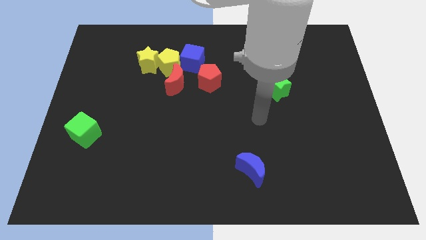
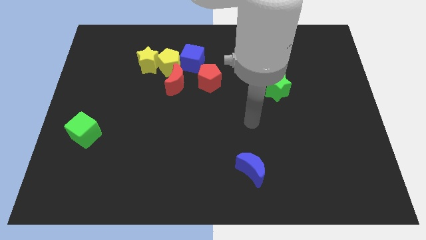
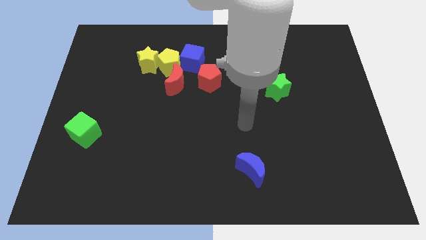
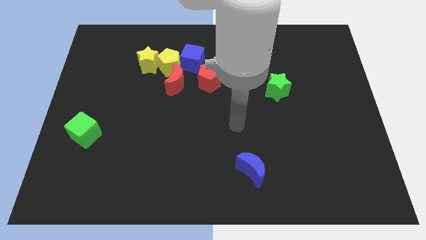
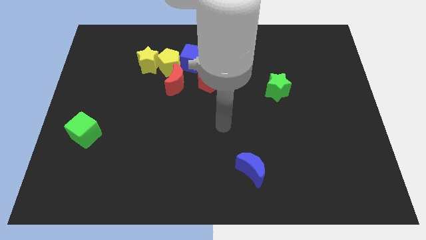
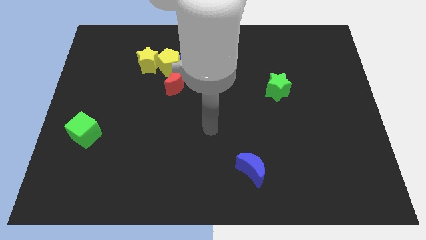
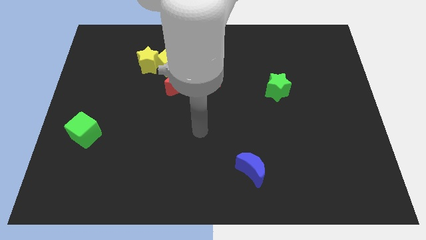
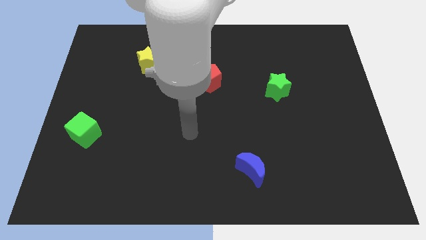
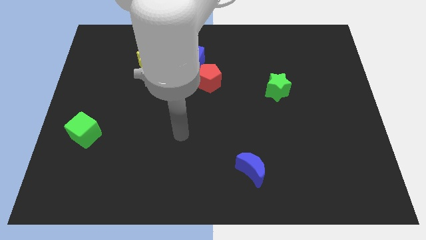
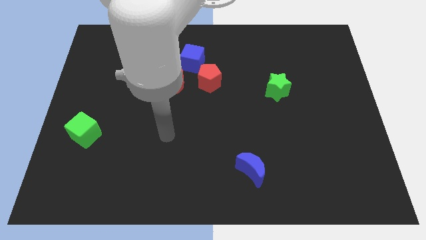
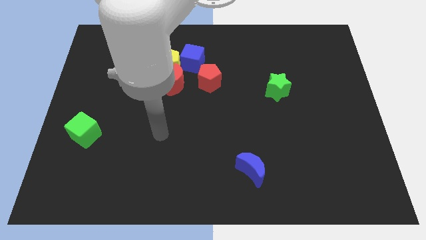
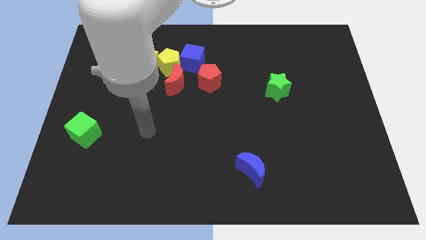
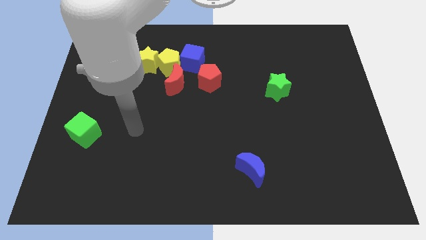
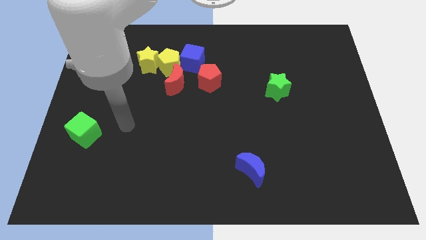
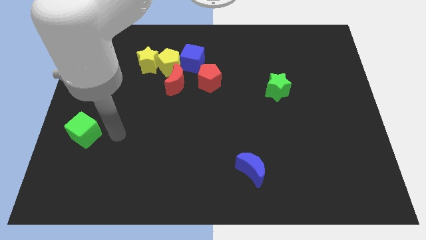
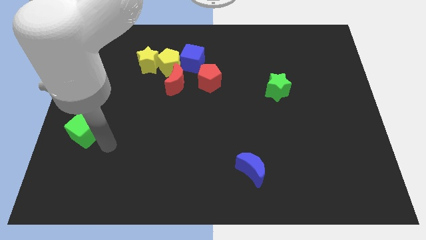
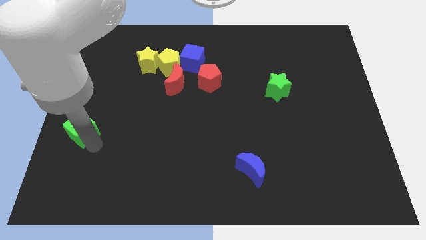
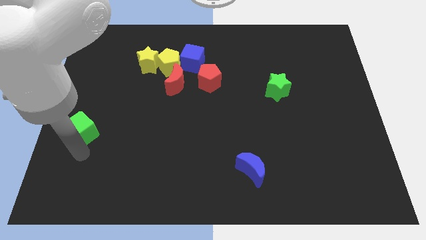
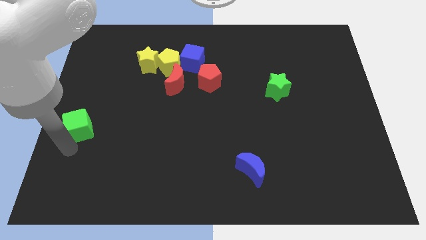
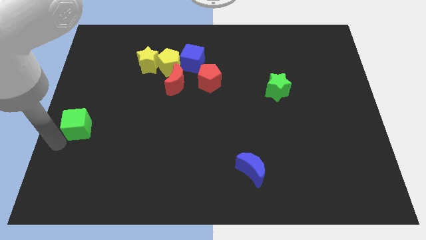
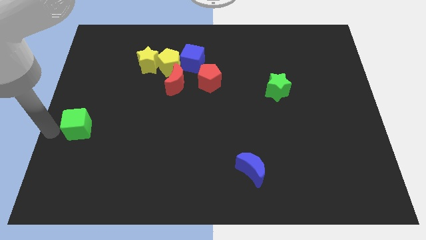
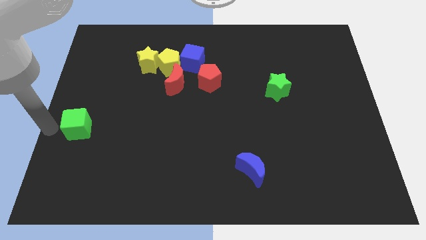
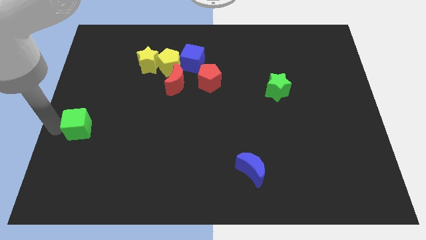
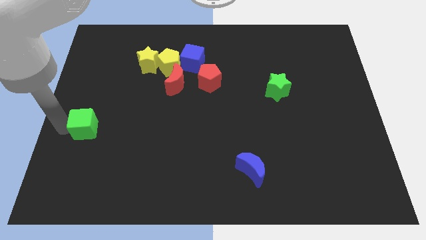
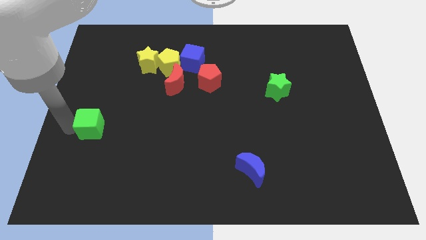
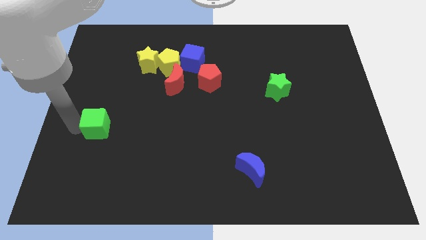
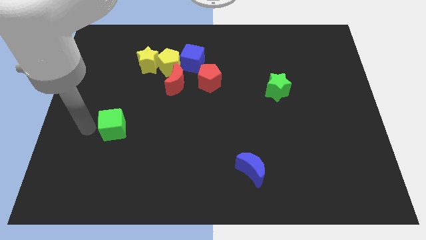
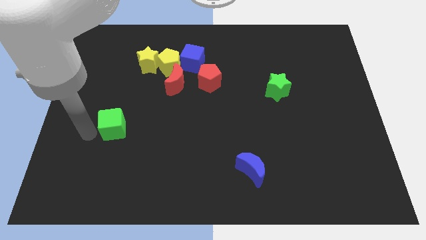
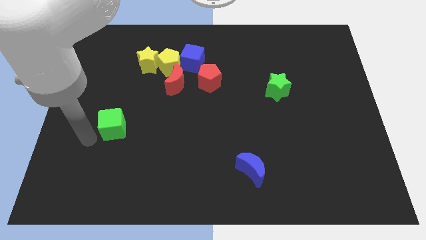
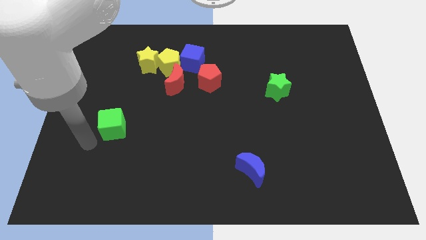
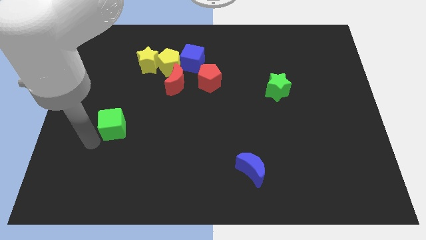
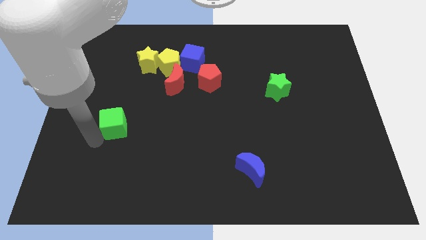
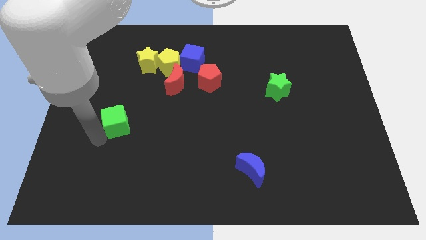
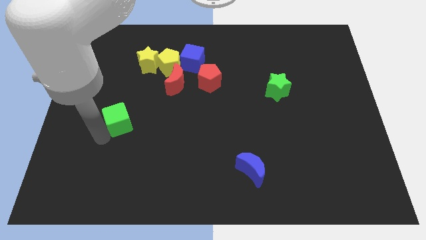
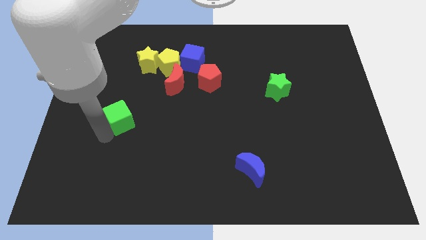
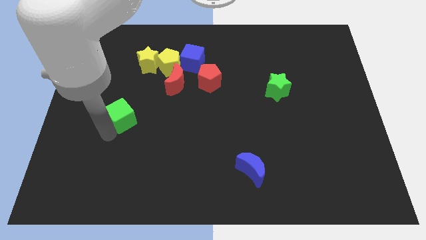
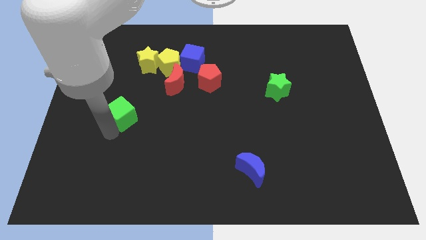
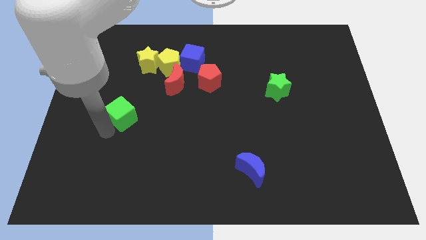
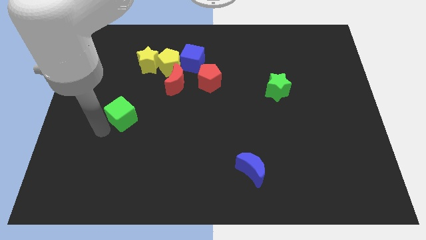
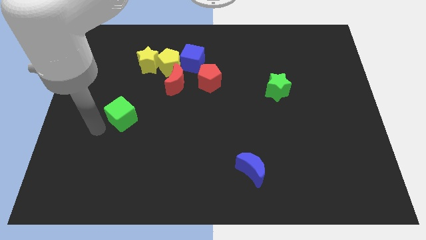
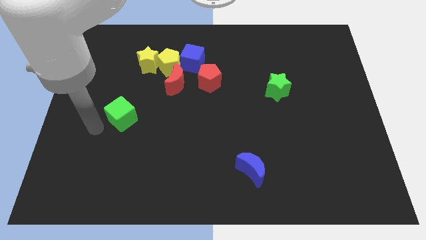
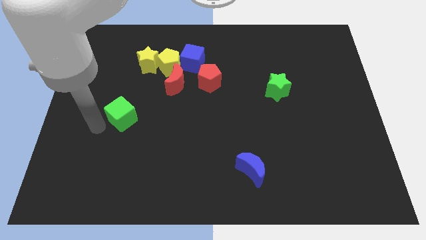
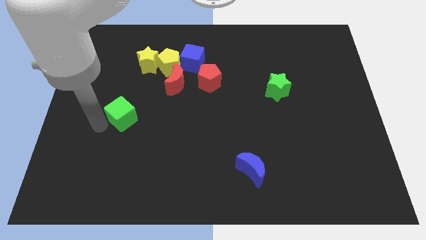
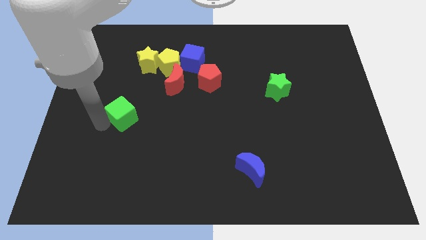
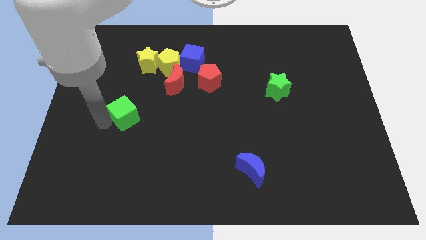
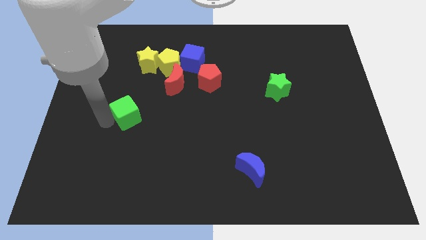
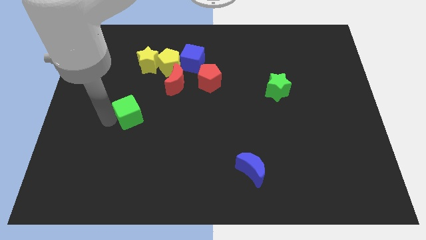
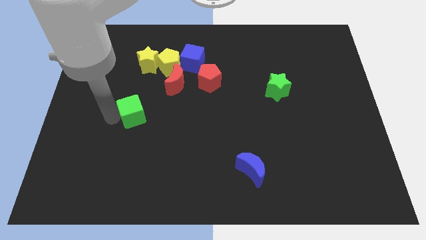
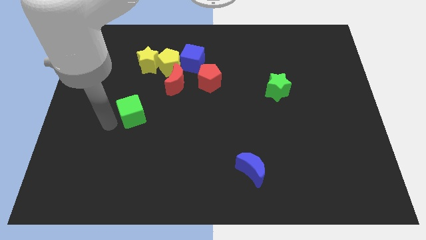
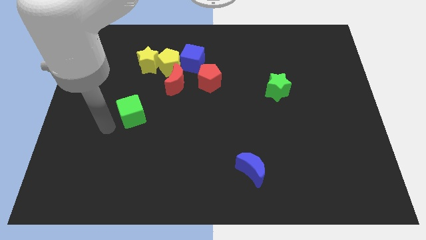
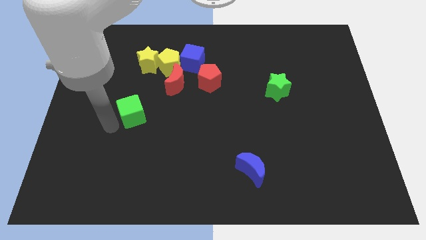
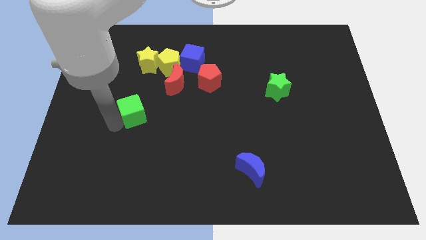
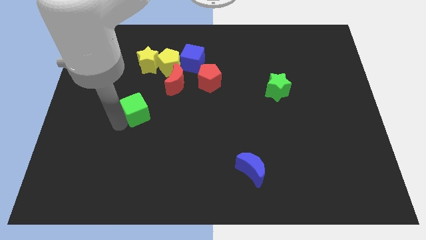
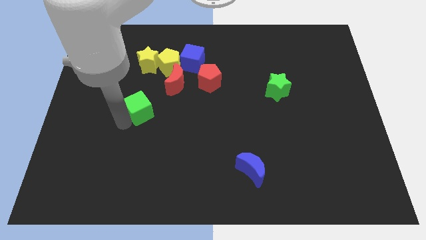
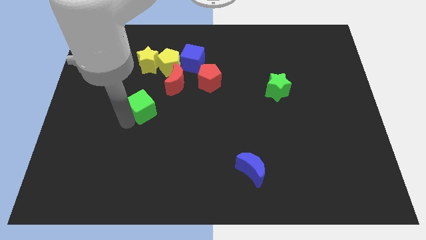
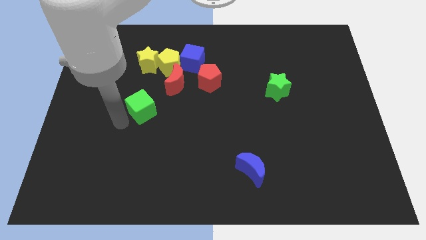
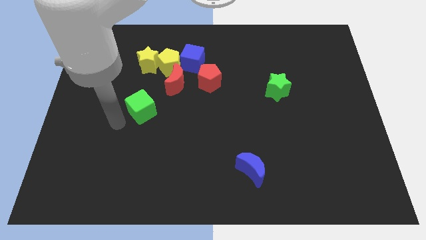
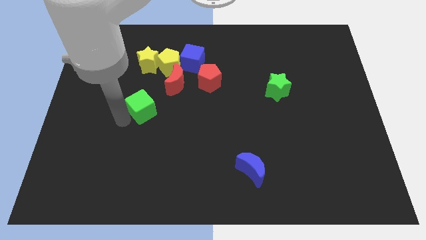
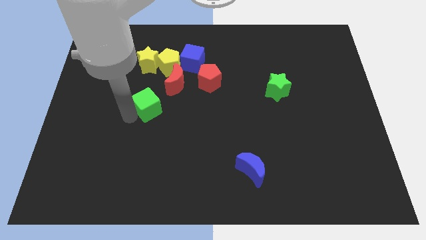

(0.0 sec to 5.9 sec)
put the green cube to the bottom of the yellow pentagon

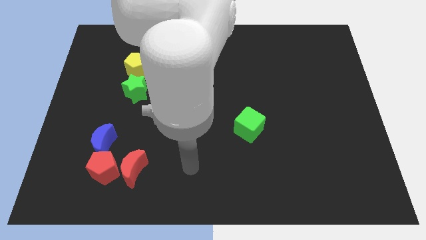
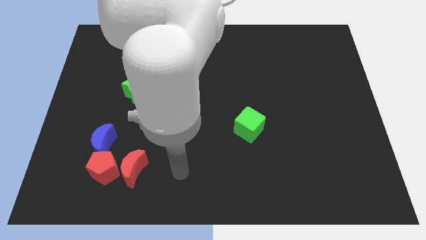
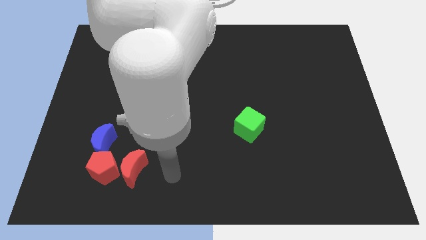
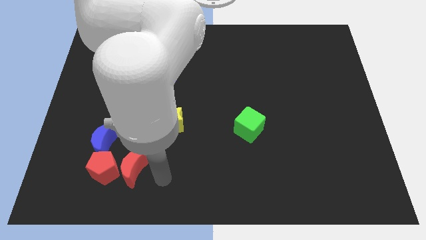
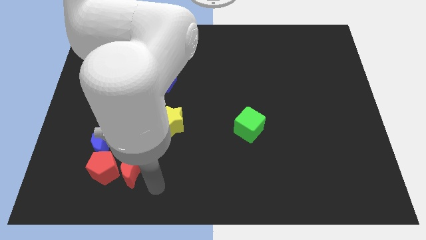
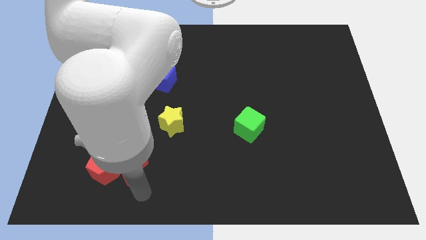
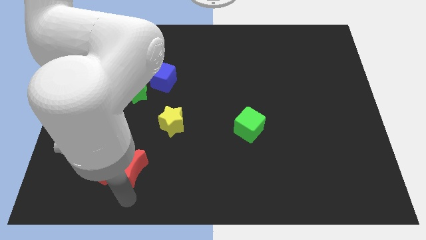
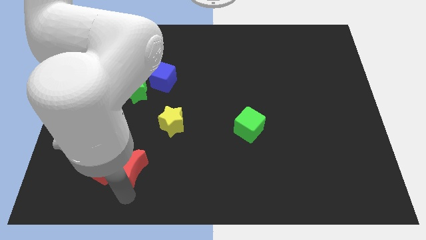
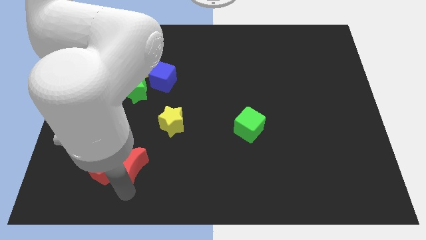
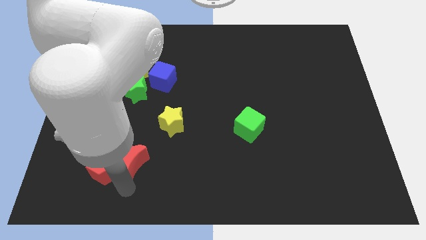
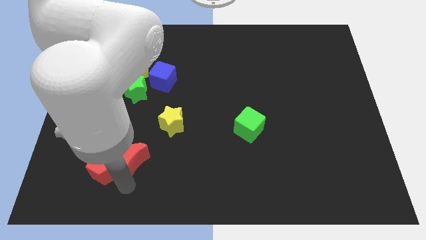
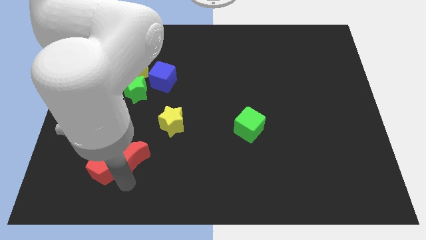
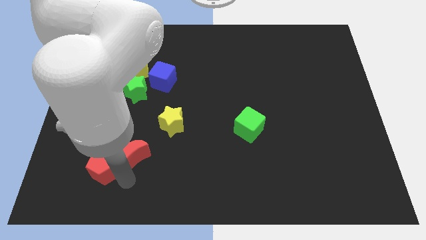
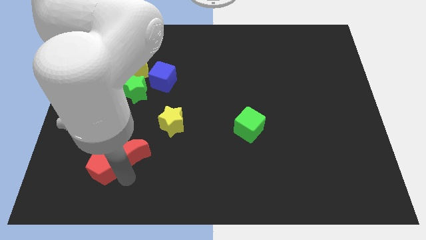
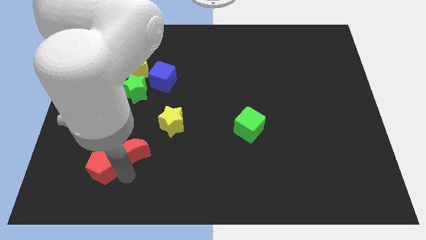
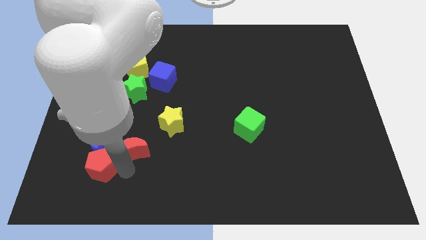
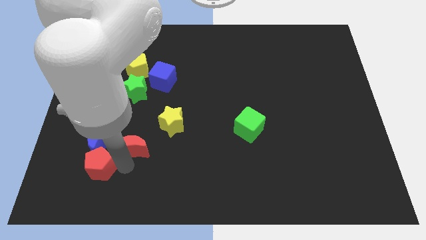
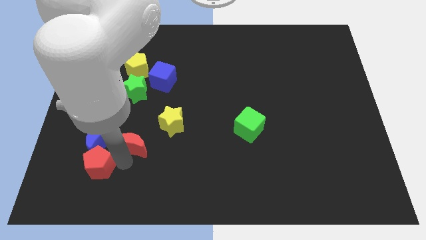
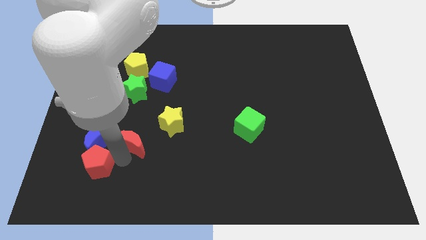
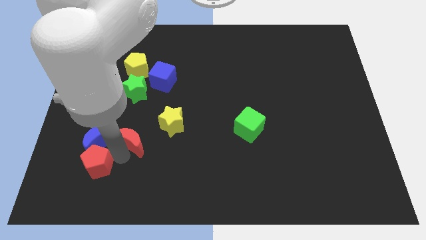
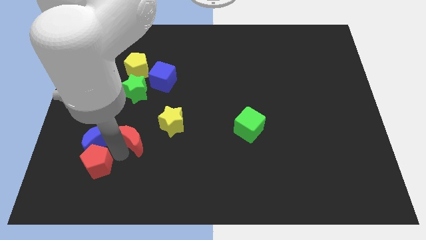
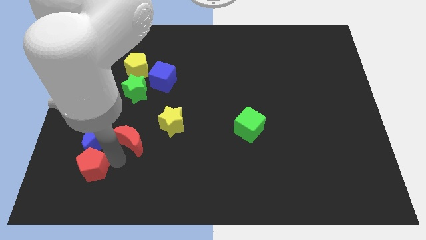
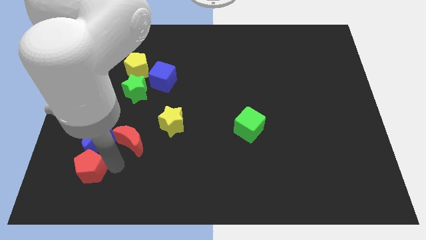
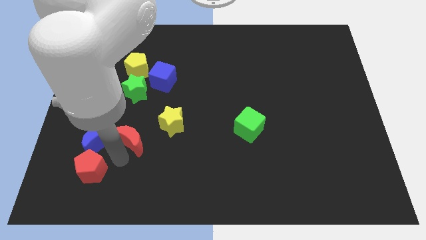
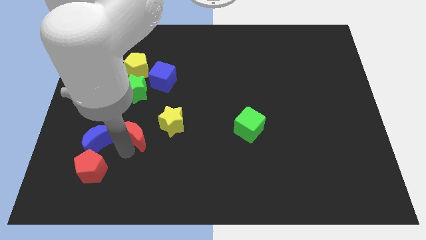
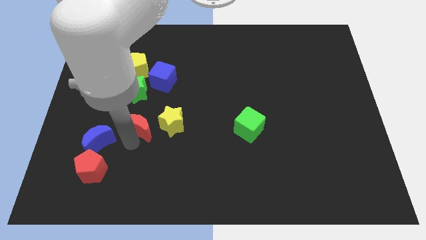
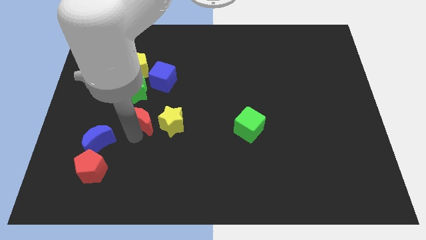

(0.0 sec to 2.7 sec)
put the red moon to the bottom right side of the green star
